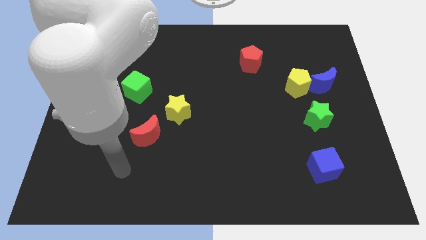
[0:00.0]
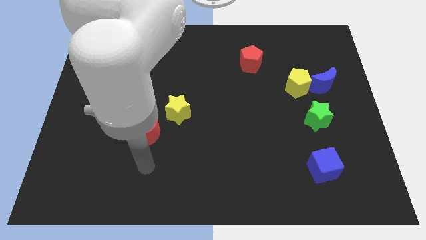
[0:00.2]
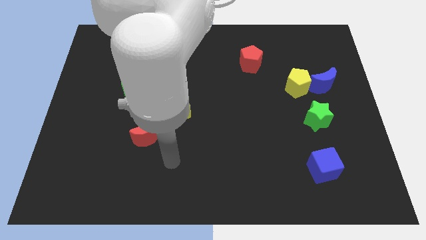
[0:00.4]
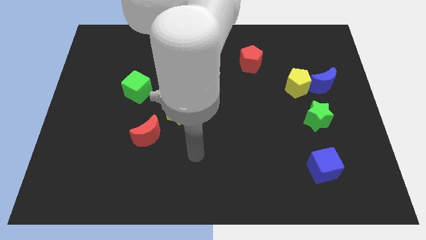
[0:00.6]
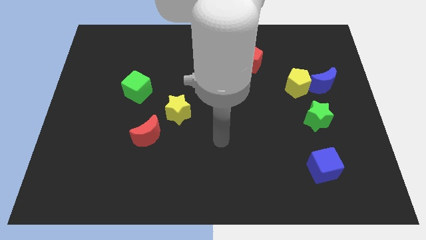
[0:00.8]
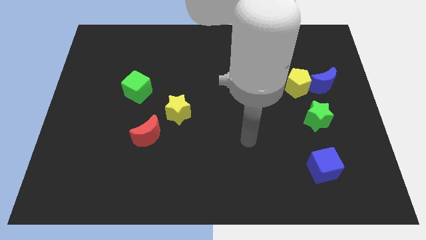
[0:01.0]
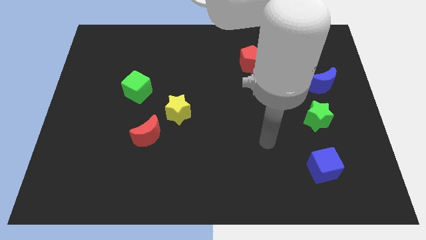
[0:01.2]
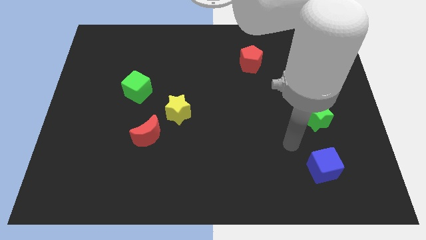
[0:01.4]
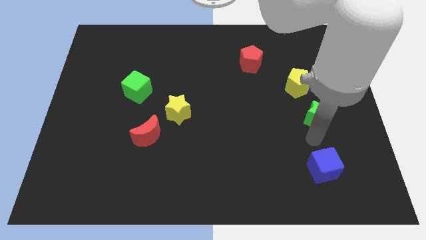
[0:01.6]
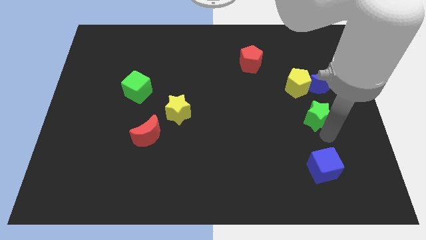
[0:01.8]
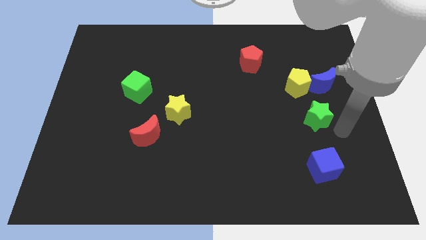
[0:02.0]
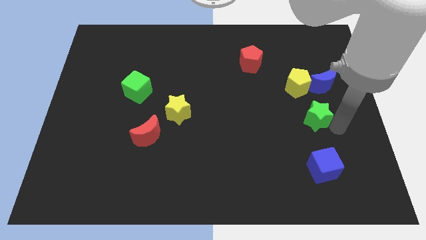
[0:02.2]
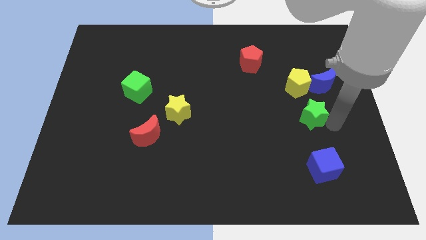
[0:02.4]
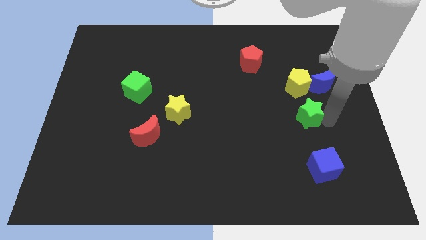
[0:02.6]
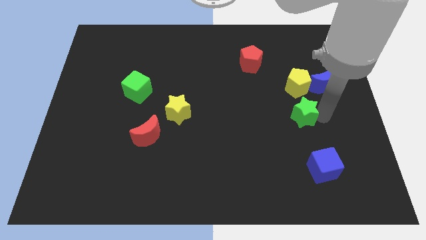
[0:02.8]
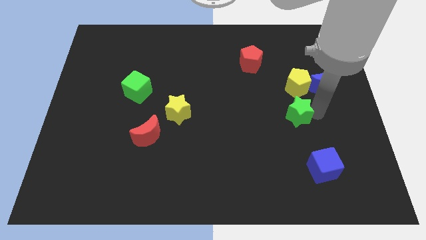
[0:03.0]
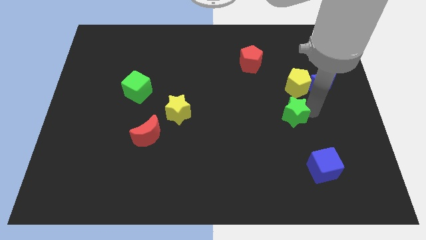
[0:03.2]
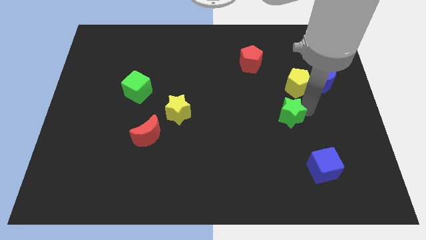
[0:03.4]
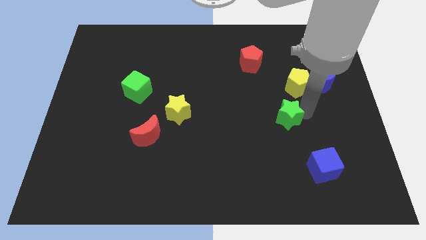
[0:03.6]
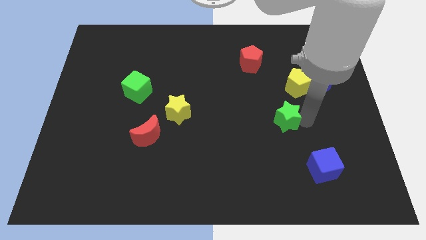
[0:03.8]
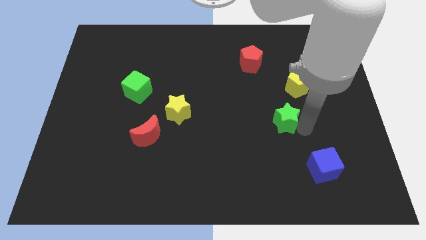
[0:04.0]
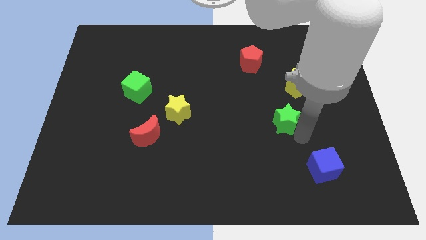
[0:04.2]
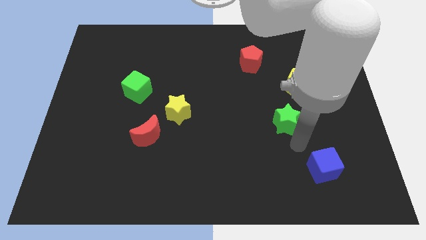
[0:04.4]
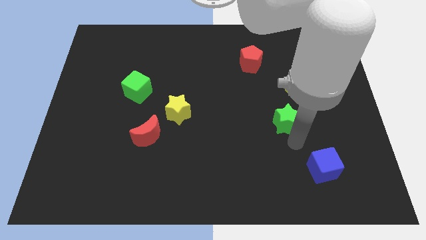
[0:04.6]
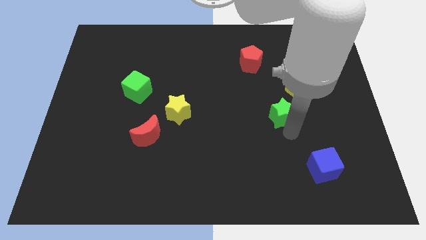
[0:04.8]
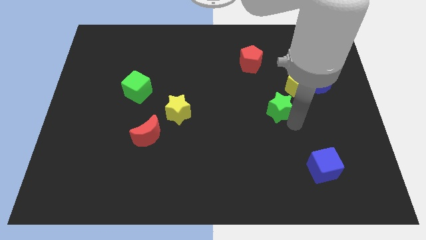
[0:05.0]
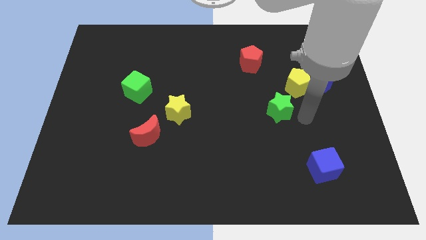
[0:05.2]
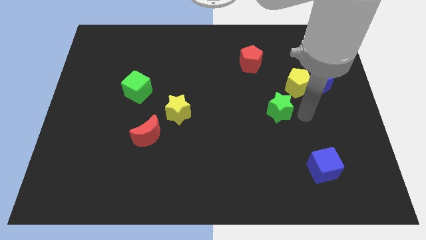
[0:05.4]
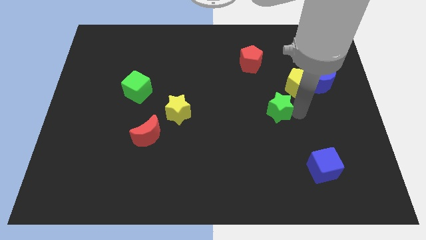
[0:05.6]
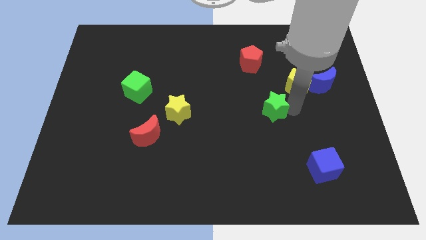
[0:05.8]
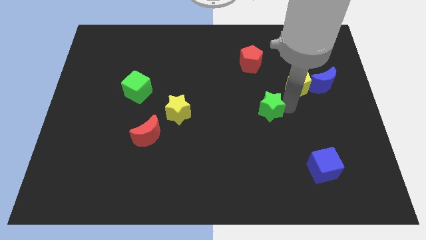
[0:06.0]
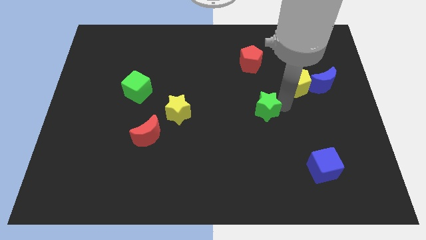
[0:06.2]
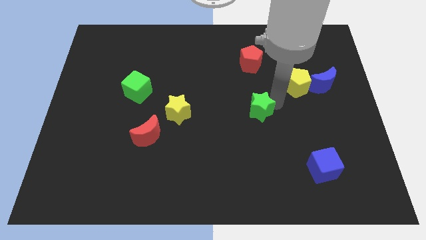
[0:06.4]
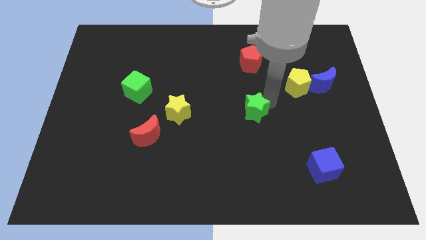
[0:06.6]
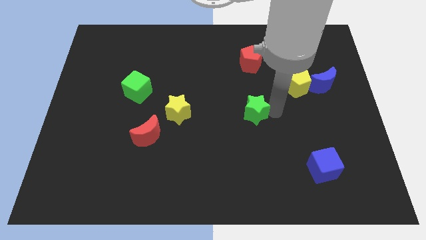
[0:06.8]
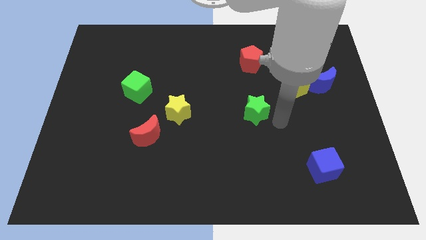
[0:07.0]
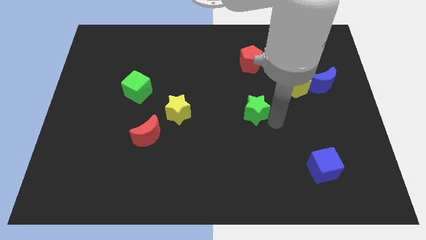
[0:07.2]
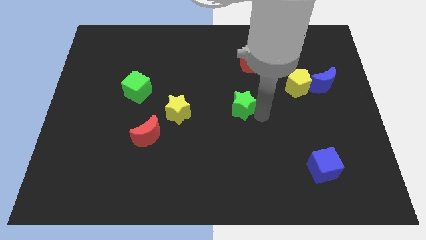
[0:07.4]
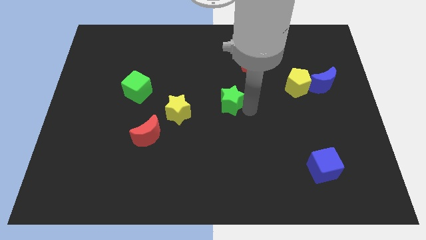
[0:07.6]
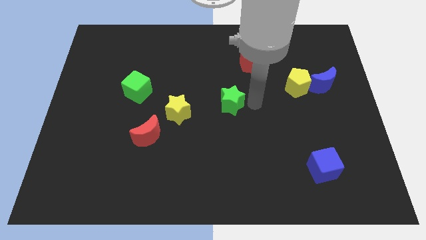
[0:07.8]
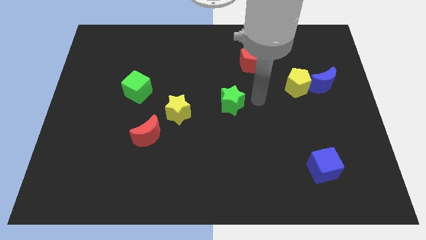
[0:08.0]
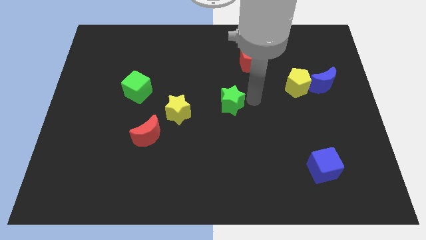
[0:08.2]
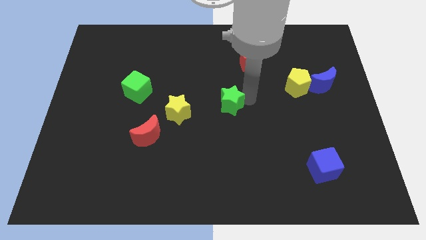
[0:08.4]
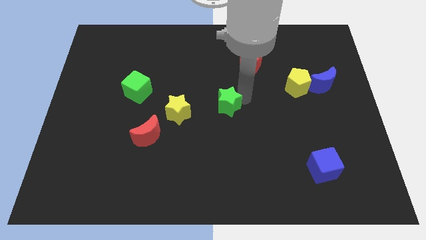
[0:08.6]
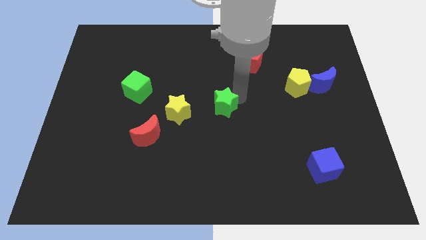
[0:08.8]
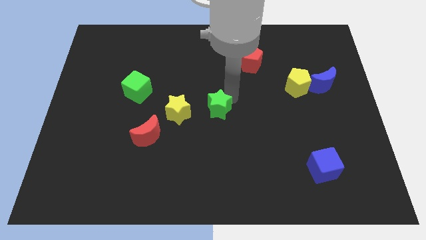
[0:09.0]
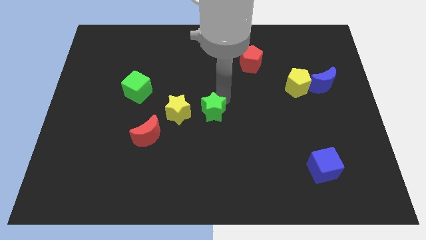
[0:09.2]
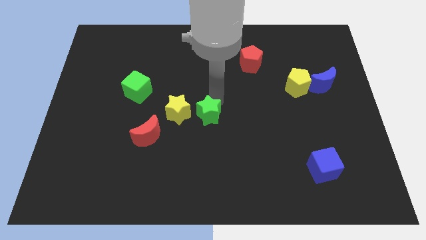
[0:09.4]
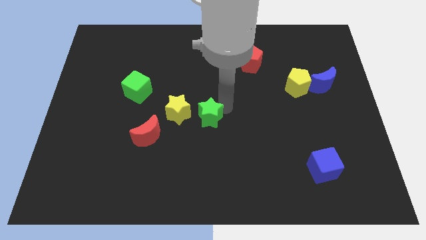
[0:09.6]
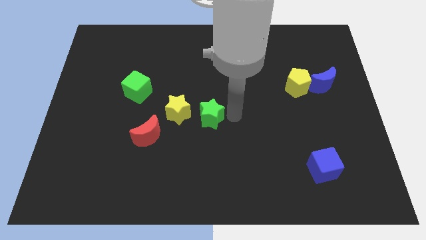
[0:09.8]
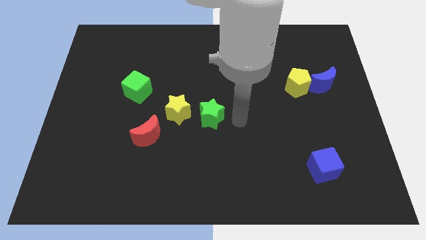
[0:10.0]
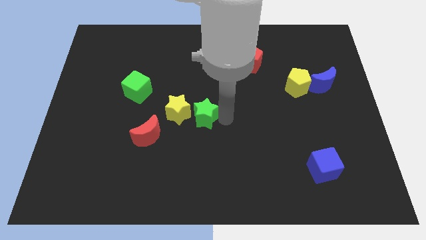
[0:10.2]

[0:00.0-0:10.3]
slide the green star to the yellow star

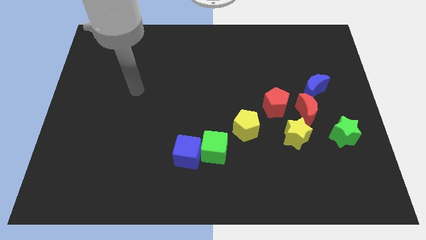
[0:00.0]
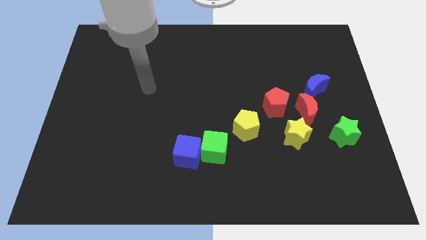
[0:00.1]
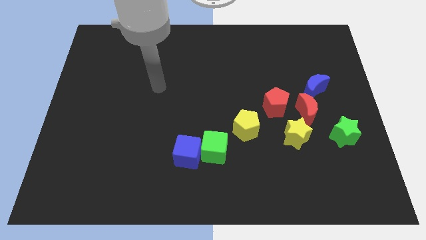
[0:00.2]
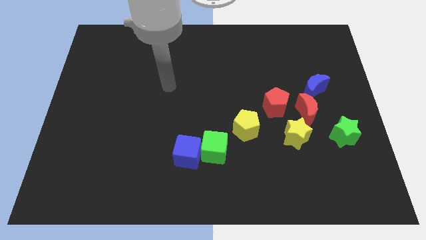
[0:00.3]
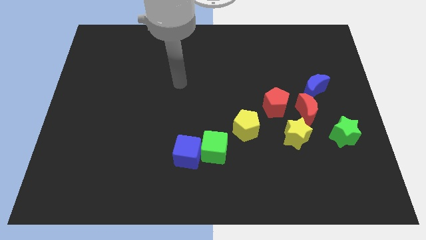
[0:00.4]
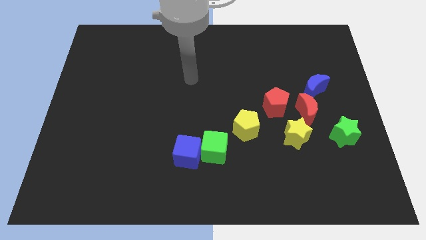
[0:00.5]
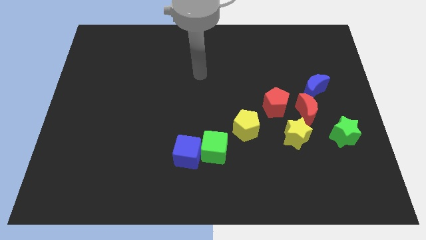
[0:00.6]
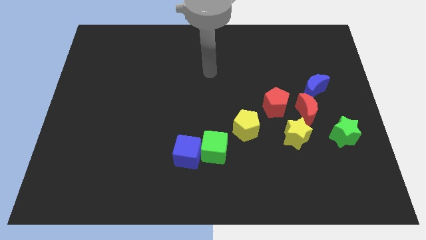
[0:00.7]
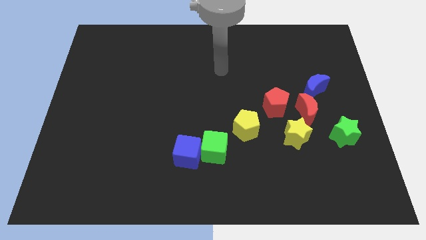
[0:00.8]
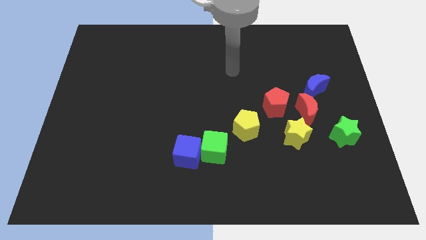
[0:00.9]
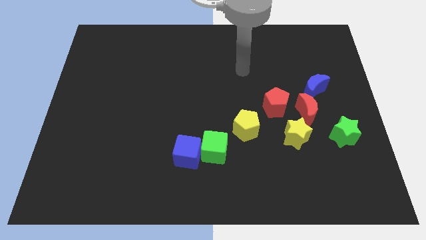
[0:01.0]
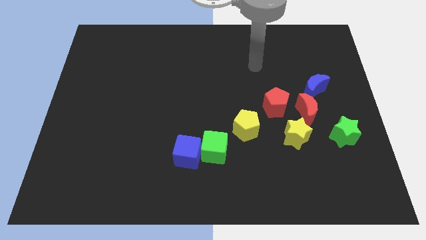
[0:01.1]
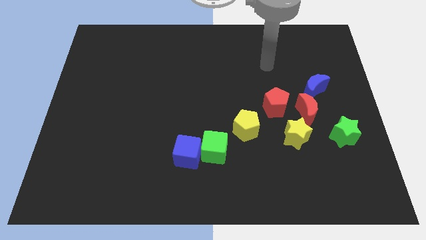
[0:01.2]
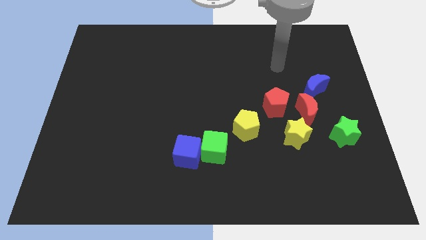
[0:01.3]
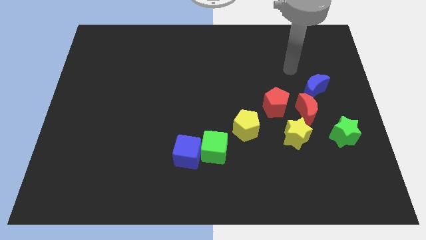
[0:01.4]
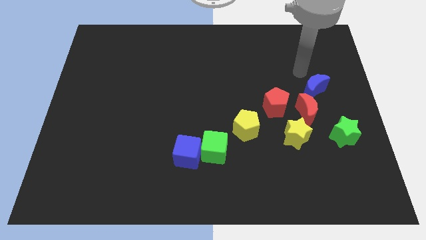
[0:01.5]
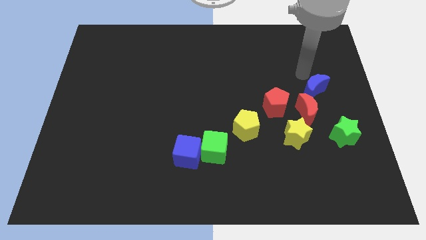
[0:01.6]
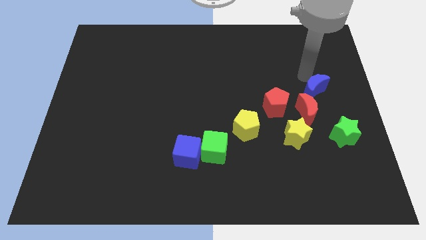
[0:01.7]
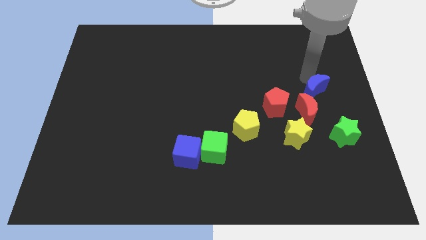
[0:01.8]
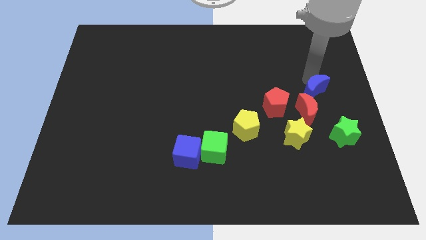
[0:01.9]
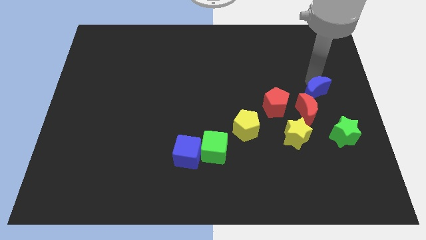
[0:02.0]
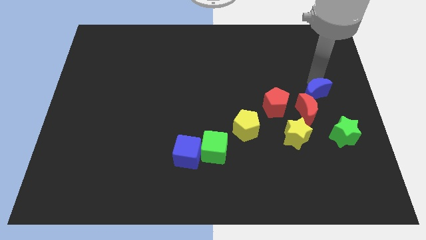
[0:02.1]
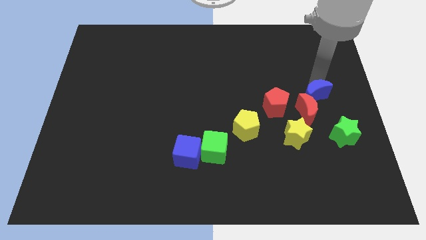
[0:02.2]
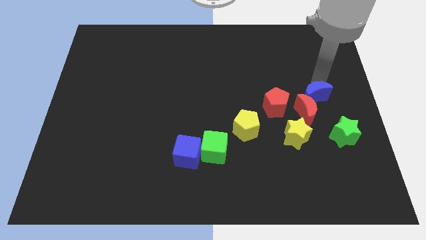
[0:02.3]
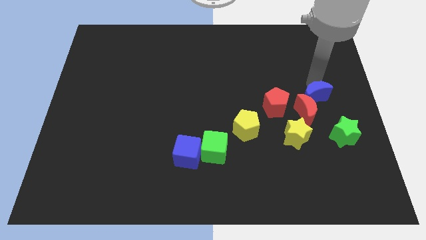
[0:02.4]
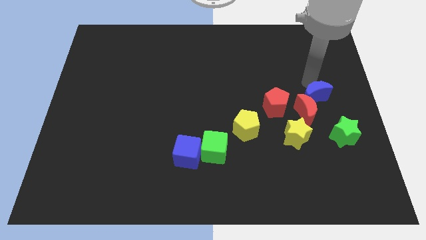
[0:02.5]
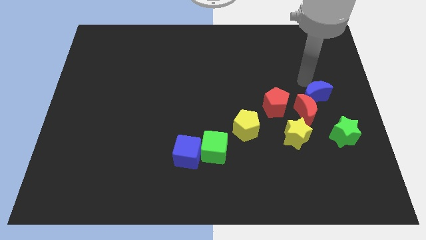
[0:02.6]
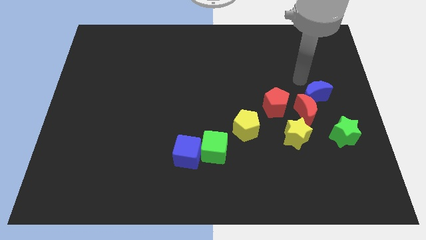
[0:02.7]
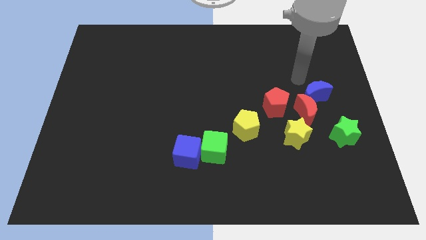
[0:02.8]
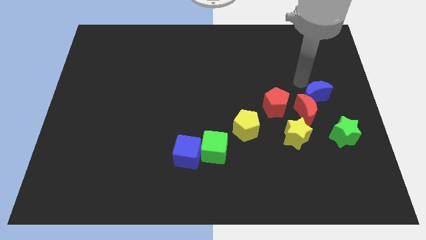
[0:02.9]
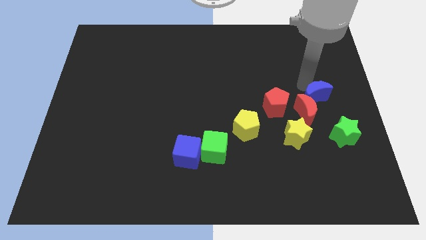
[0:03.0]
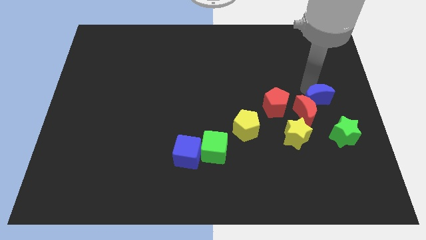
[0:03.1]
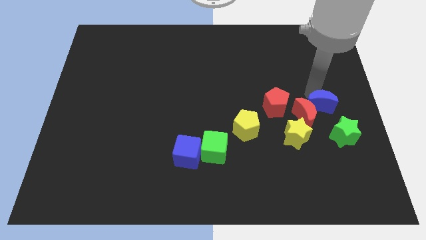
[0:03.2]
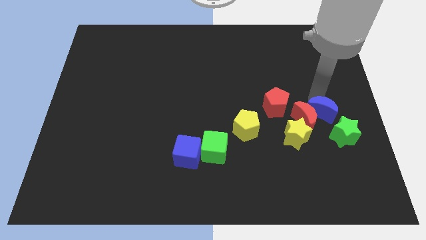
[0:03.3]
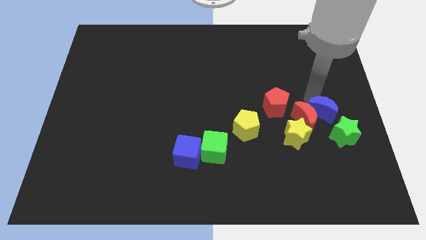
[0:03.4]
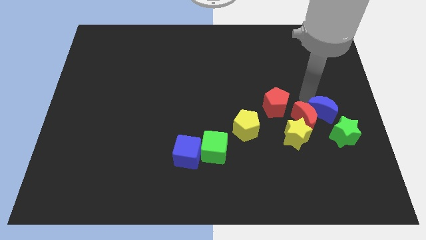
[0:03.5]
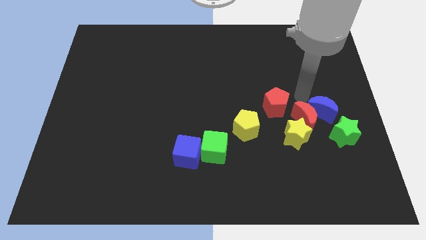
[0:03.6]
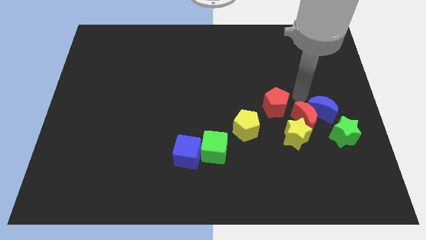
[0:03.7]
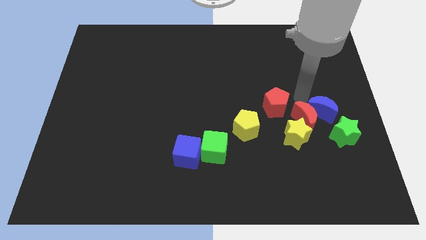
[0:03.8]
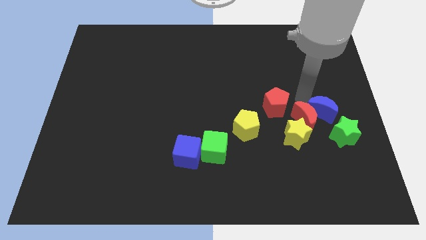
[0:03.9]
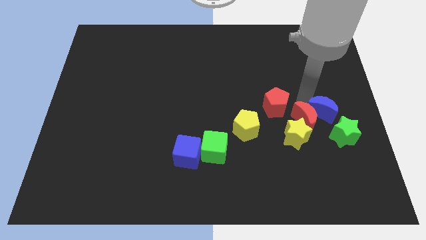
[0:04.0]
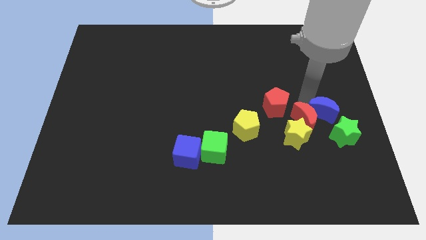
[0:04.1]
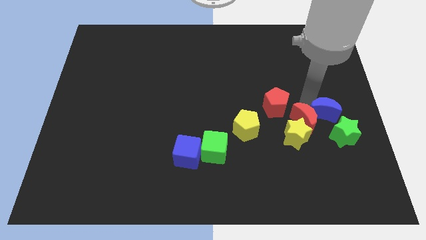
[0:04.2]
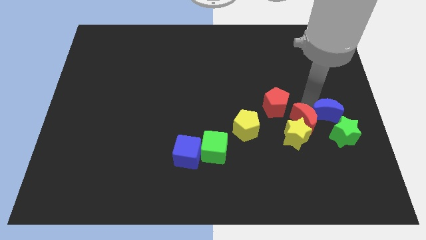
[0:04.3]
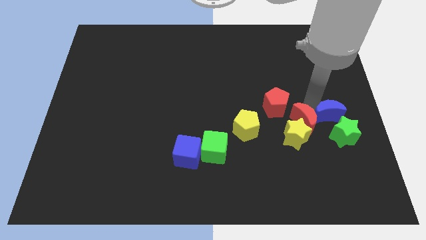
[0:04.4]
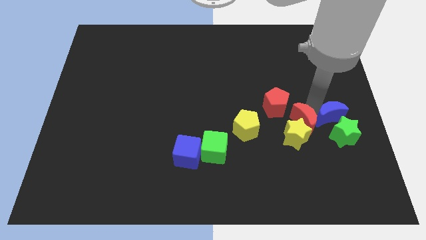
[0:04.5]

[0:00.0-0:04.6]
put the blue moon to the green star
